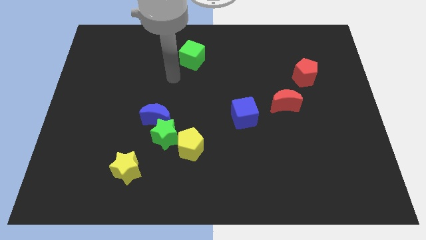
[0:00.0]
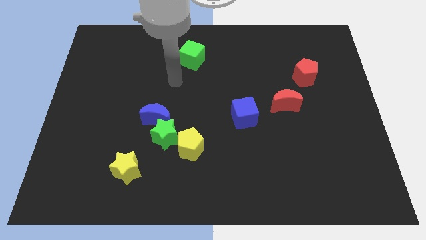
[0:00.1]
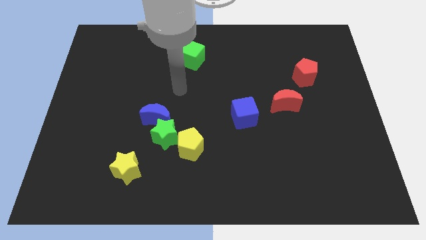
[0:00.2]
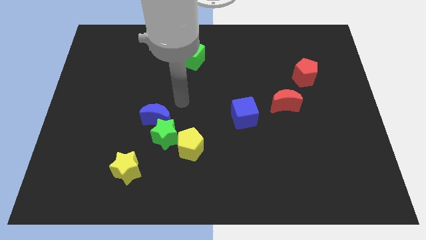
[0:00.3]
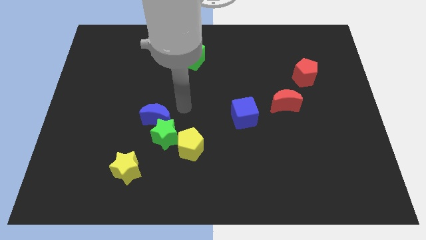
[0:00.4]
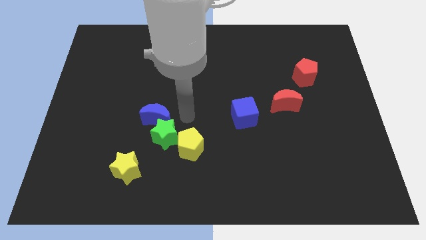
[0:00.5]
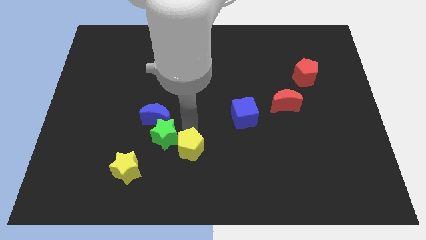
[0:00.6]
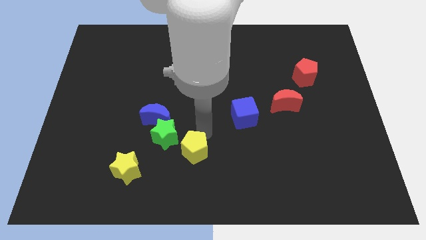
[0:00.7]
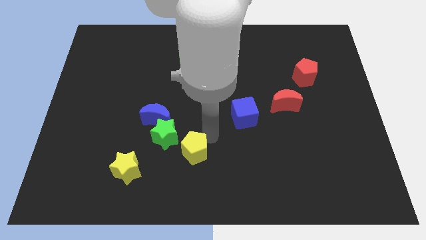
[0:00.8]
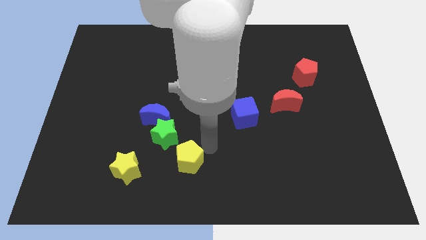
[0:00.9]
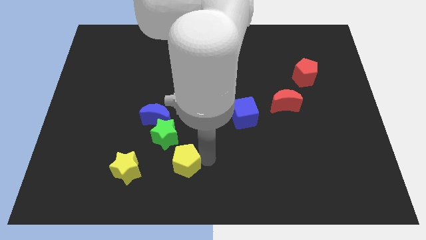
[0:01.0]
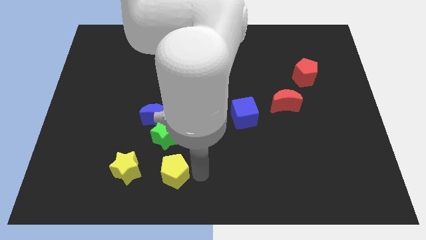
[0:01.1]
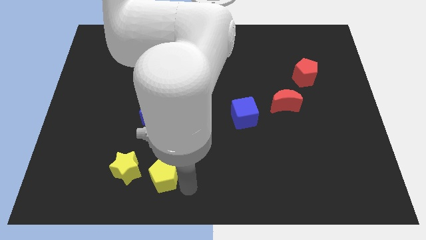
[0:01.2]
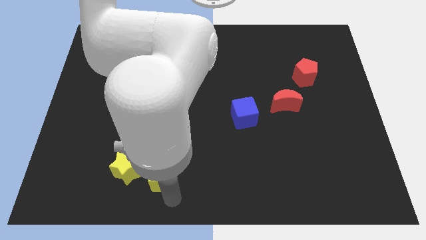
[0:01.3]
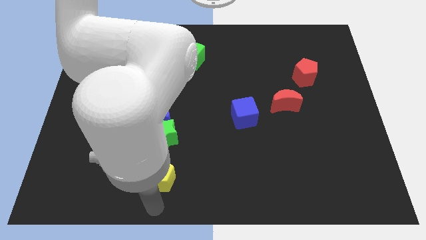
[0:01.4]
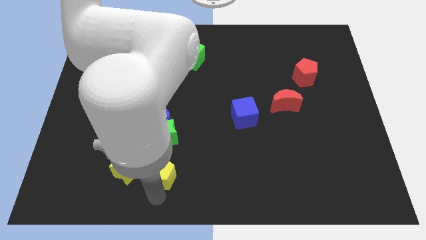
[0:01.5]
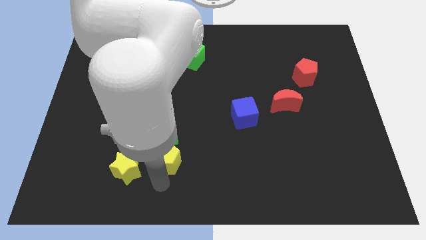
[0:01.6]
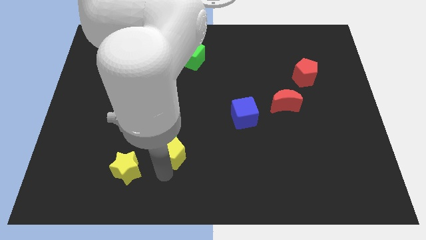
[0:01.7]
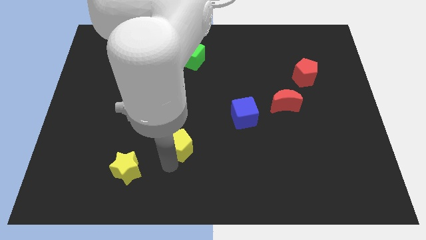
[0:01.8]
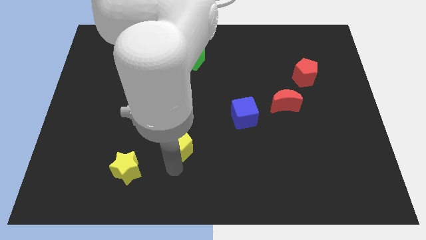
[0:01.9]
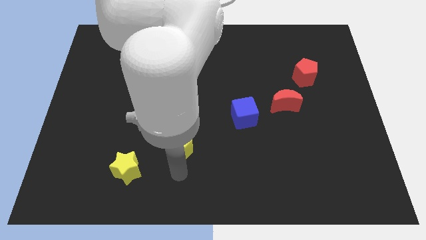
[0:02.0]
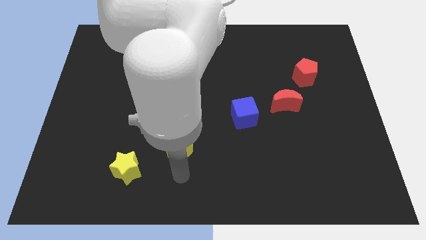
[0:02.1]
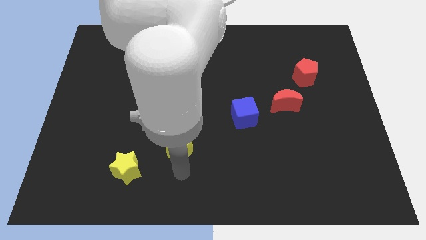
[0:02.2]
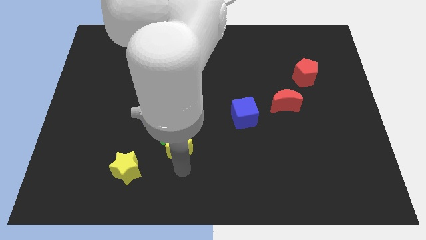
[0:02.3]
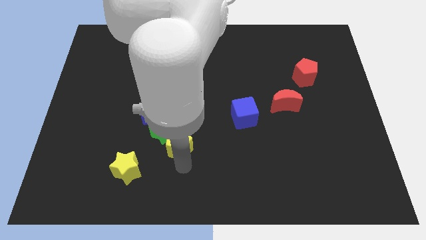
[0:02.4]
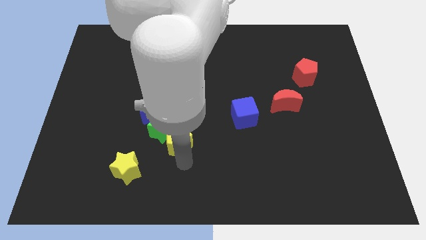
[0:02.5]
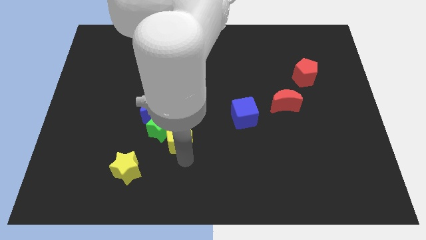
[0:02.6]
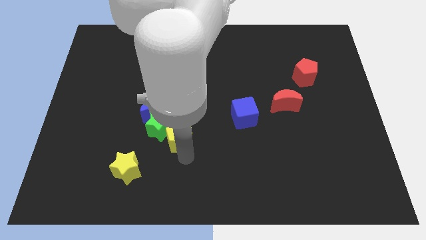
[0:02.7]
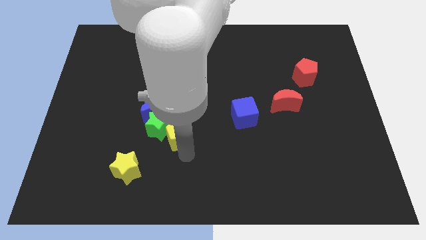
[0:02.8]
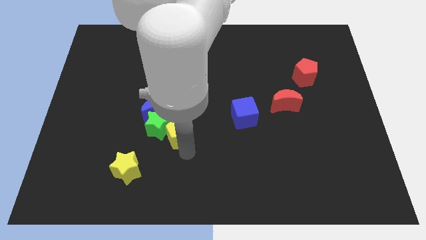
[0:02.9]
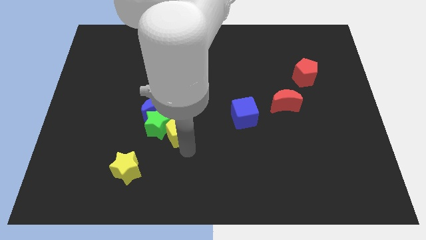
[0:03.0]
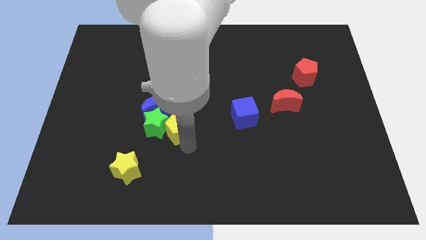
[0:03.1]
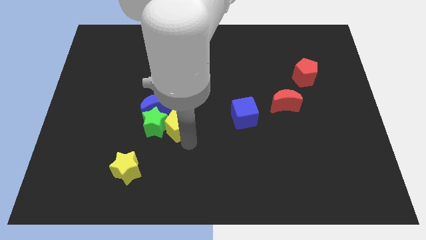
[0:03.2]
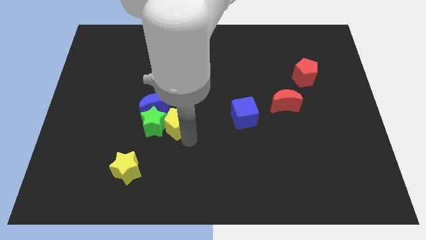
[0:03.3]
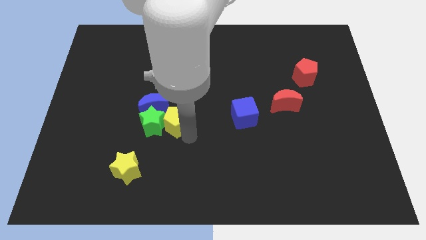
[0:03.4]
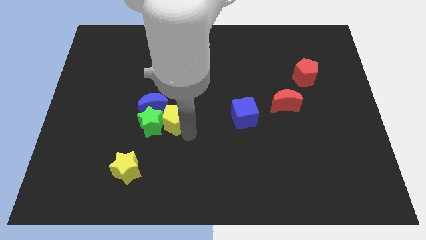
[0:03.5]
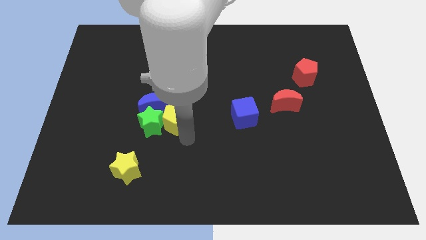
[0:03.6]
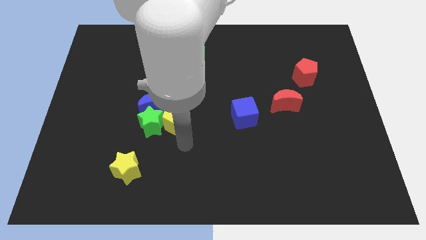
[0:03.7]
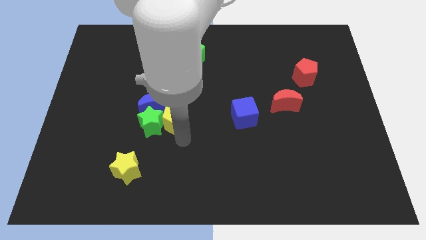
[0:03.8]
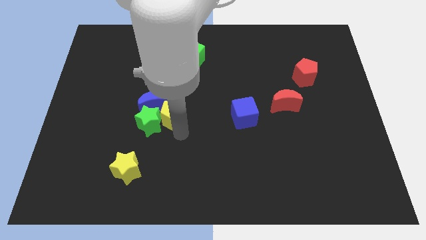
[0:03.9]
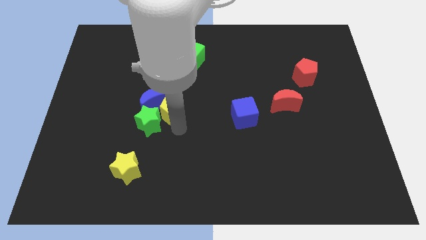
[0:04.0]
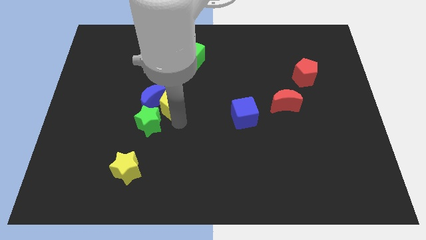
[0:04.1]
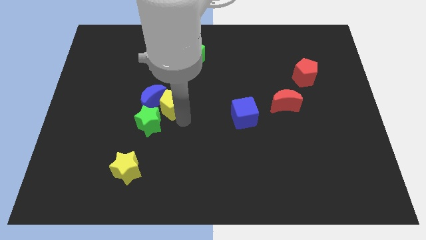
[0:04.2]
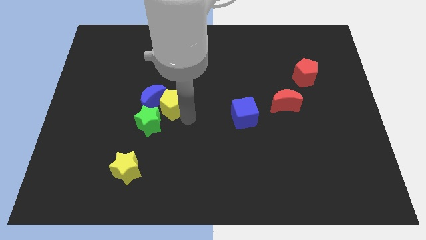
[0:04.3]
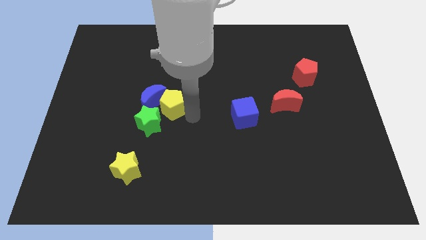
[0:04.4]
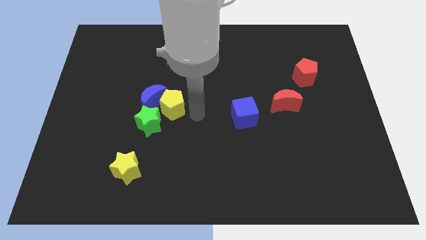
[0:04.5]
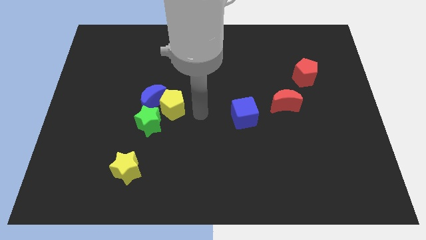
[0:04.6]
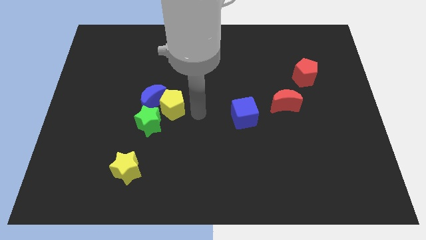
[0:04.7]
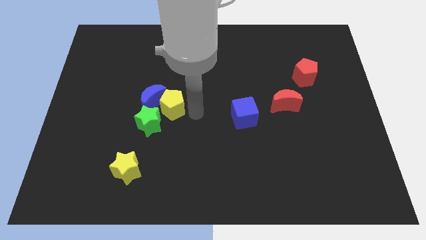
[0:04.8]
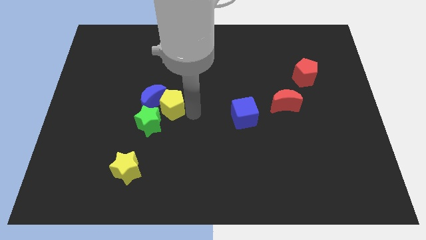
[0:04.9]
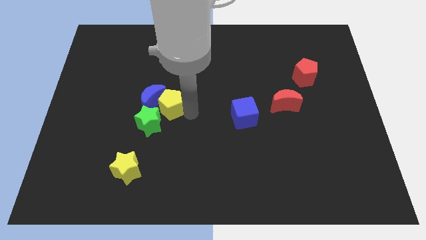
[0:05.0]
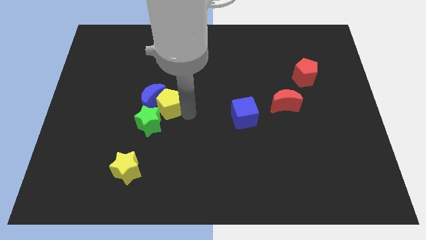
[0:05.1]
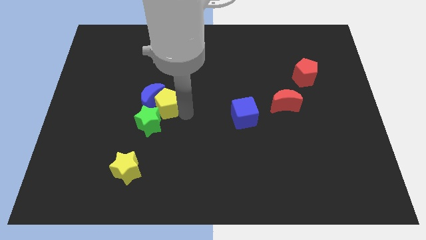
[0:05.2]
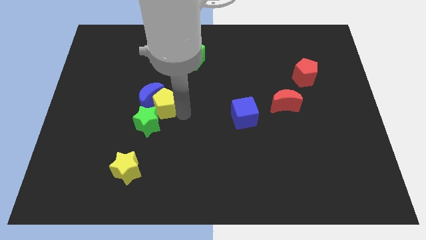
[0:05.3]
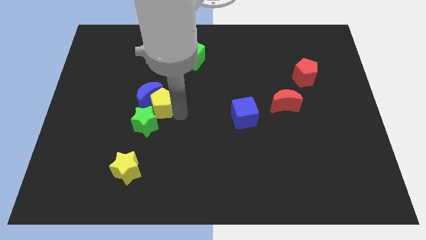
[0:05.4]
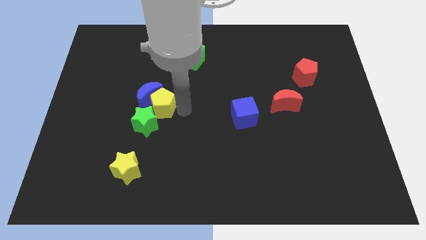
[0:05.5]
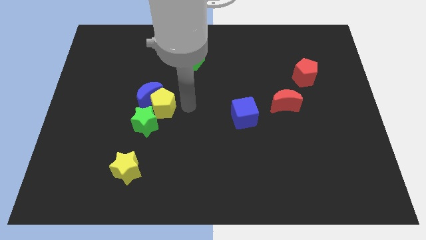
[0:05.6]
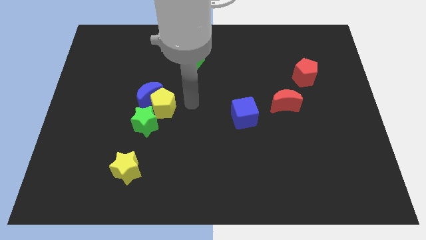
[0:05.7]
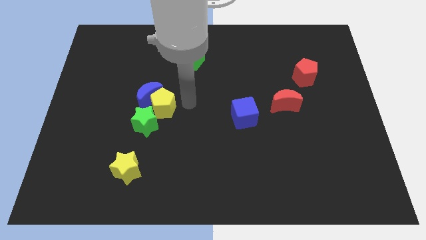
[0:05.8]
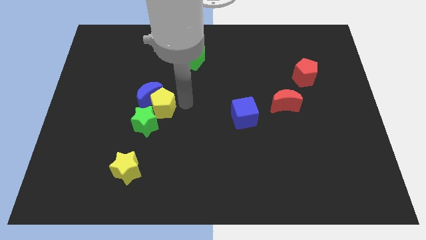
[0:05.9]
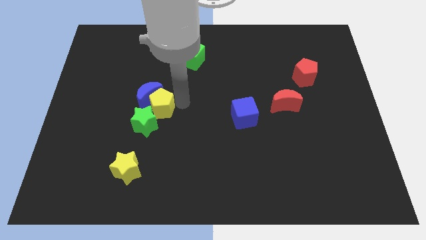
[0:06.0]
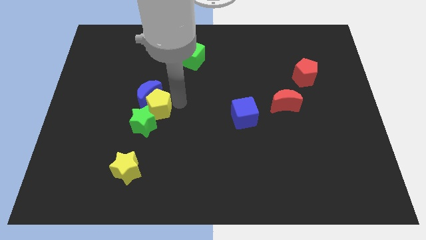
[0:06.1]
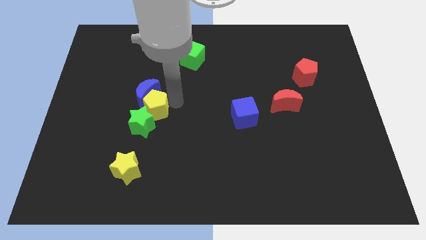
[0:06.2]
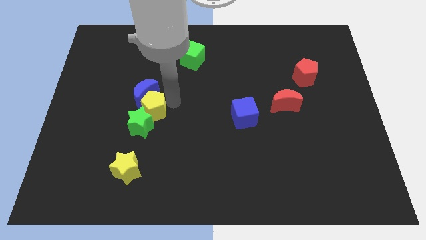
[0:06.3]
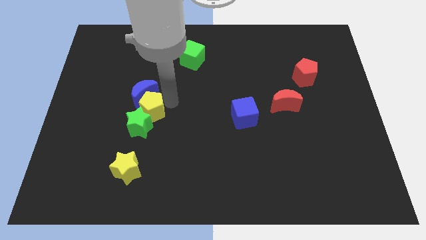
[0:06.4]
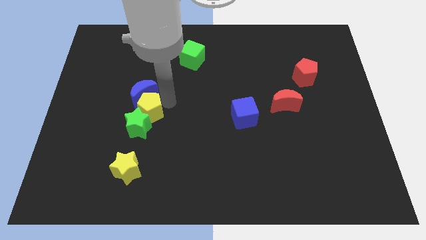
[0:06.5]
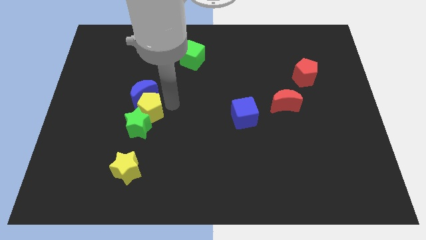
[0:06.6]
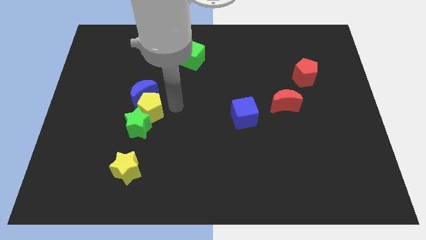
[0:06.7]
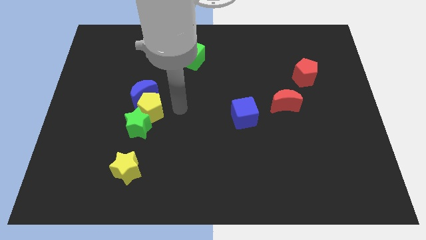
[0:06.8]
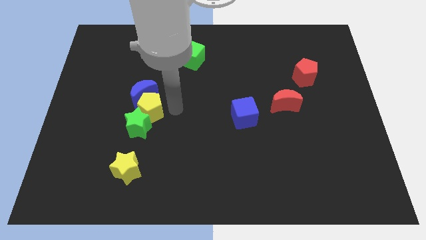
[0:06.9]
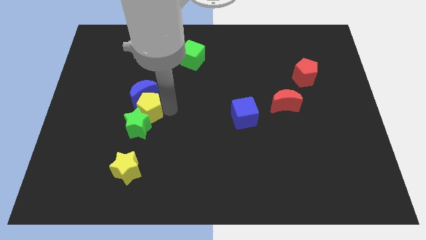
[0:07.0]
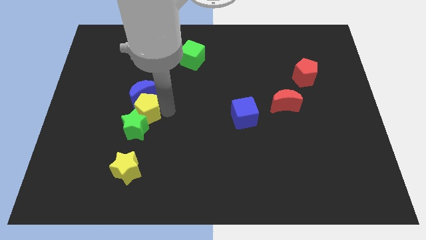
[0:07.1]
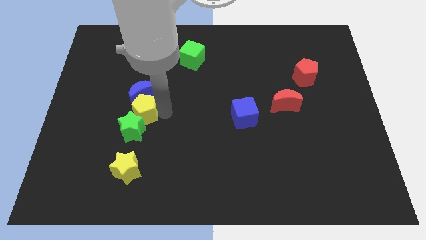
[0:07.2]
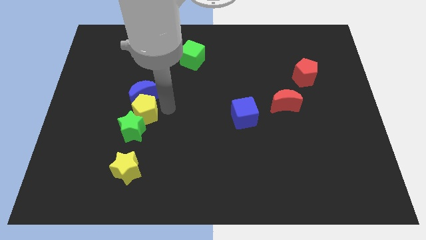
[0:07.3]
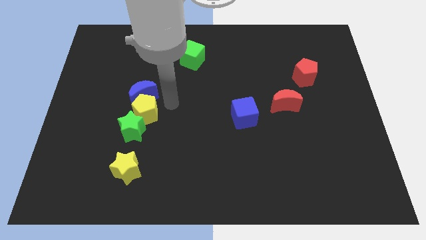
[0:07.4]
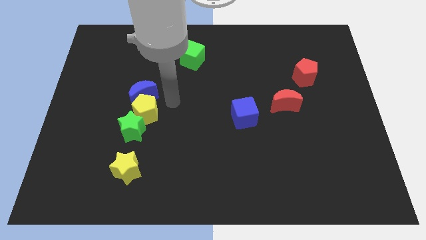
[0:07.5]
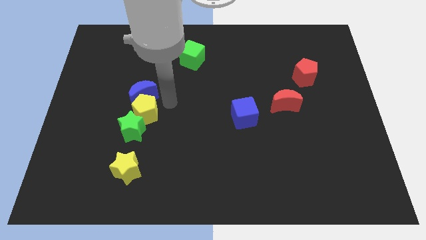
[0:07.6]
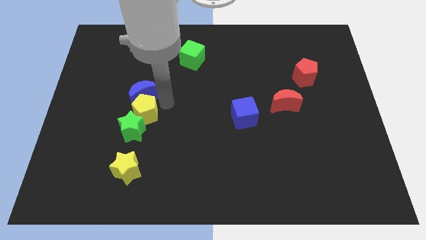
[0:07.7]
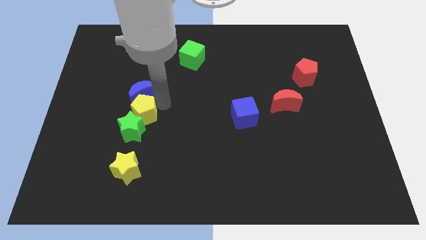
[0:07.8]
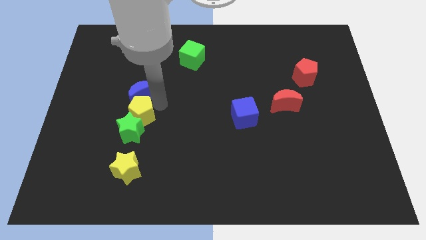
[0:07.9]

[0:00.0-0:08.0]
move the yellow pentagon a little left
